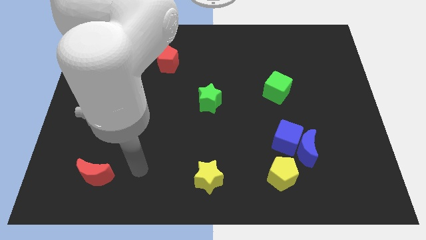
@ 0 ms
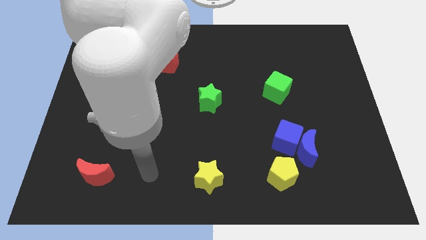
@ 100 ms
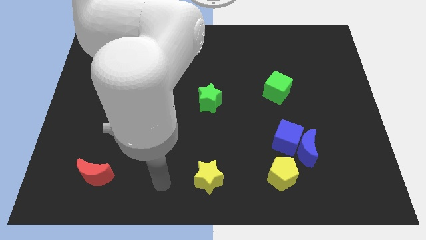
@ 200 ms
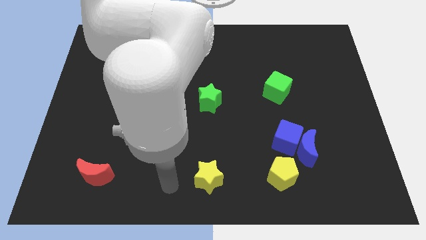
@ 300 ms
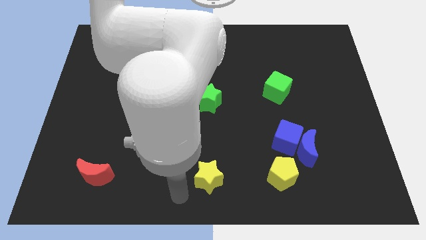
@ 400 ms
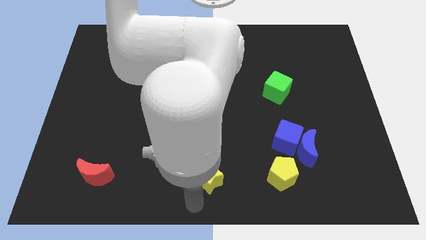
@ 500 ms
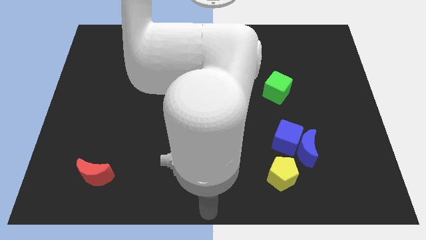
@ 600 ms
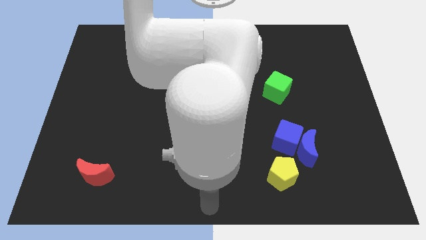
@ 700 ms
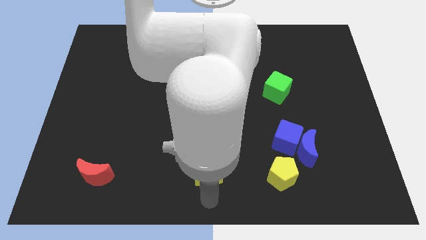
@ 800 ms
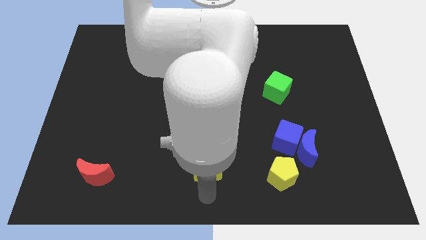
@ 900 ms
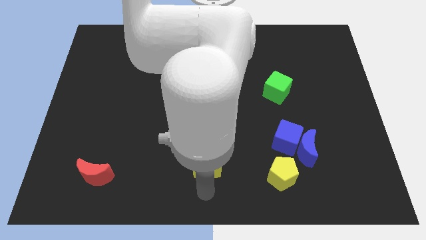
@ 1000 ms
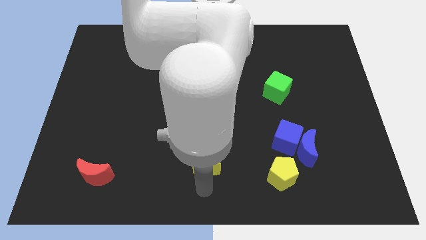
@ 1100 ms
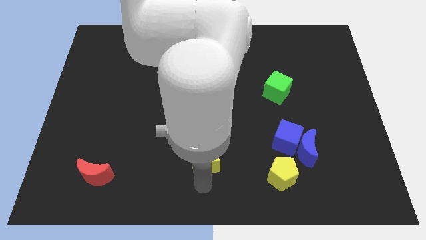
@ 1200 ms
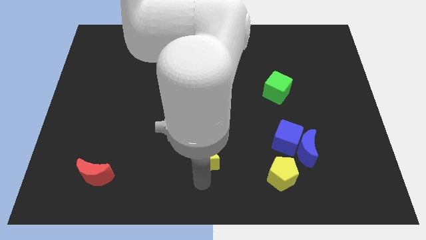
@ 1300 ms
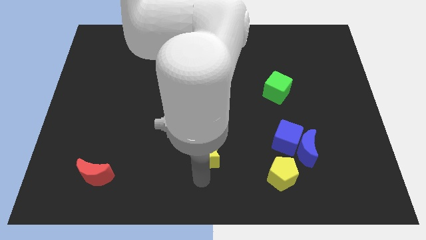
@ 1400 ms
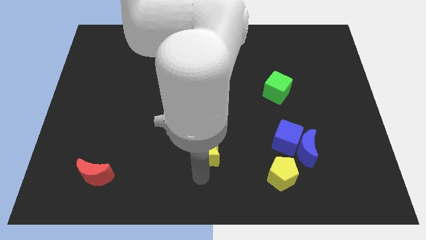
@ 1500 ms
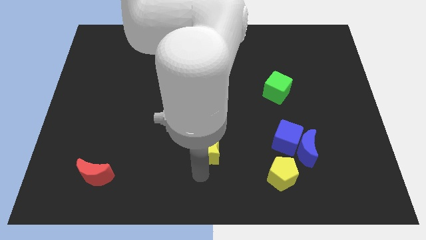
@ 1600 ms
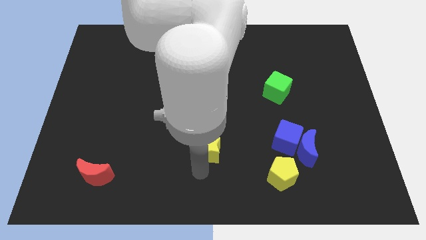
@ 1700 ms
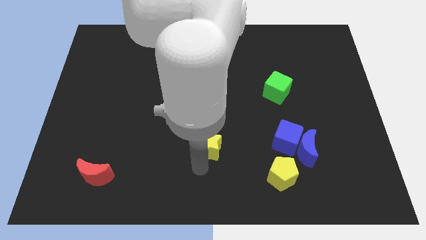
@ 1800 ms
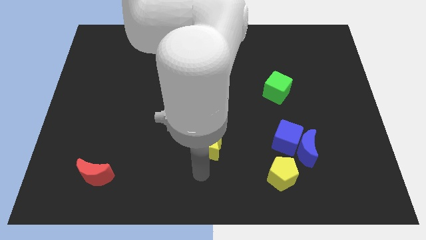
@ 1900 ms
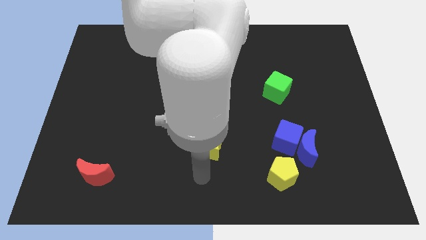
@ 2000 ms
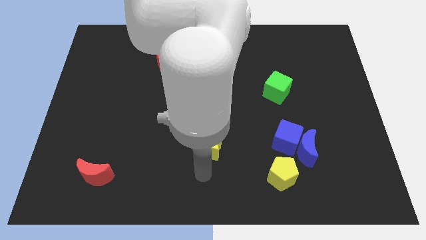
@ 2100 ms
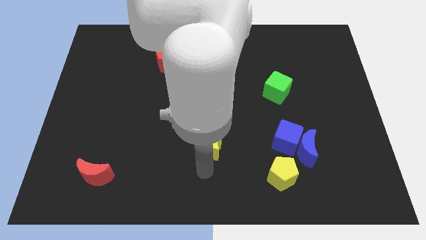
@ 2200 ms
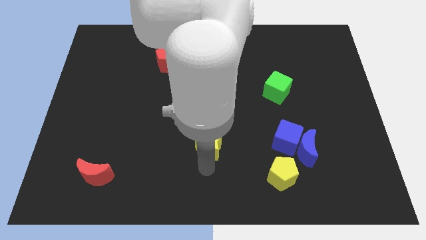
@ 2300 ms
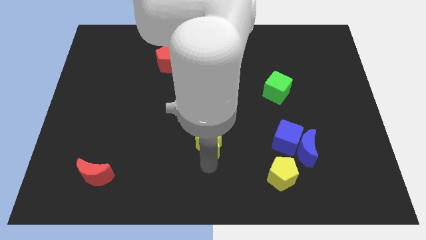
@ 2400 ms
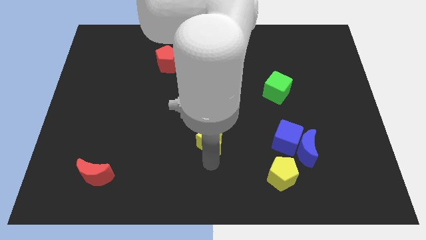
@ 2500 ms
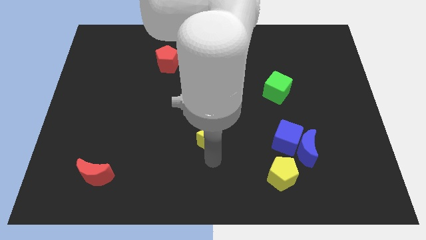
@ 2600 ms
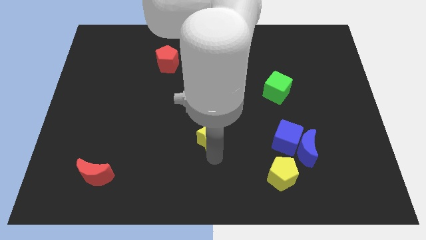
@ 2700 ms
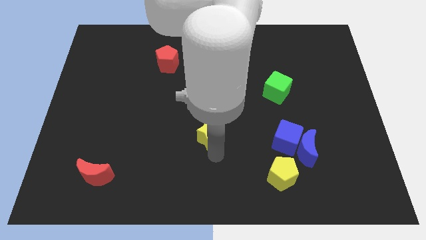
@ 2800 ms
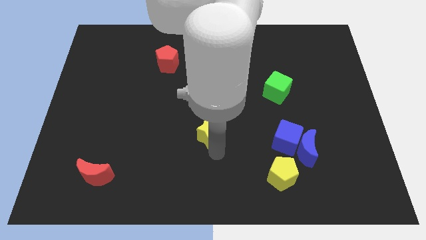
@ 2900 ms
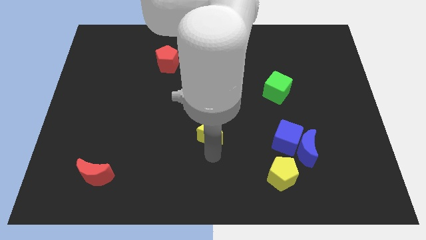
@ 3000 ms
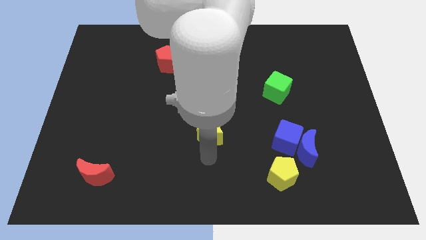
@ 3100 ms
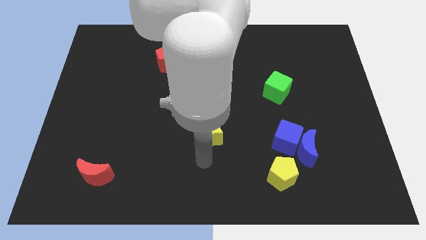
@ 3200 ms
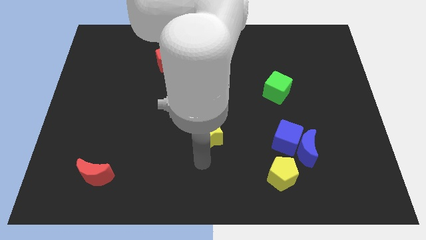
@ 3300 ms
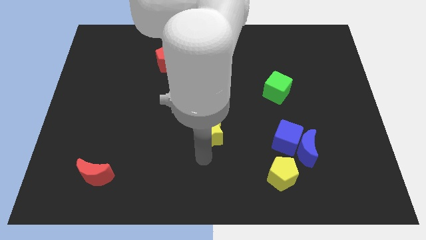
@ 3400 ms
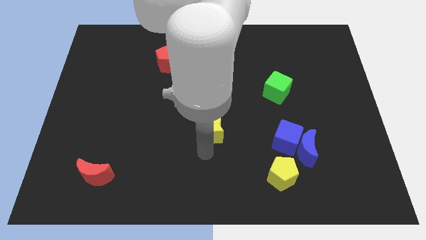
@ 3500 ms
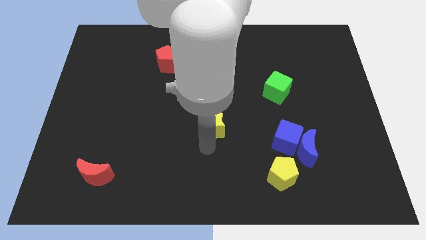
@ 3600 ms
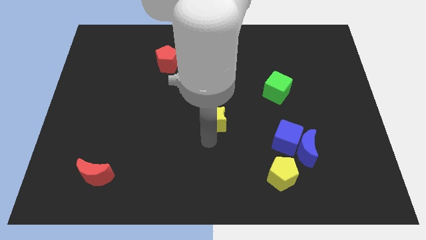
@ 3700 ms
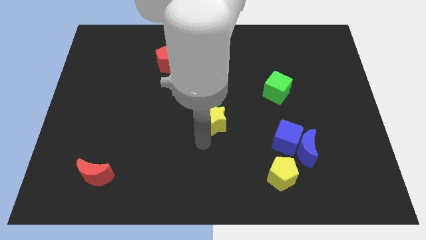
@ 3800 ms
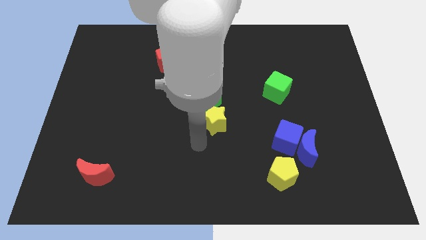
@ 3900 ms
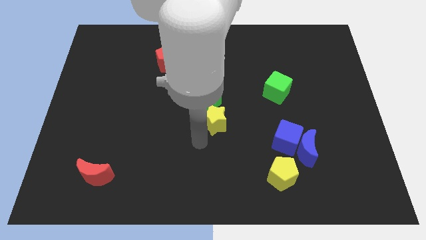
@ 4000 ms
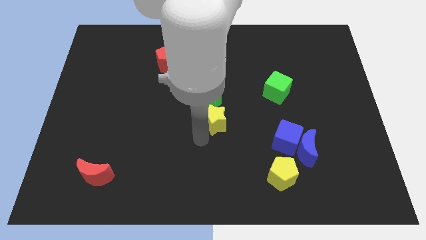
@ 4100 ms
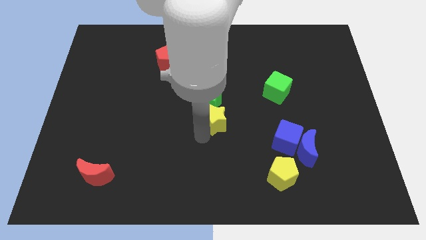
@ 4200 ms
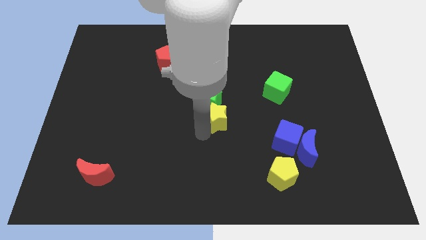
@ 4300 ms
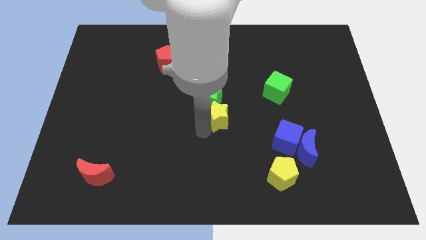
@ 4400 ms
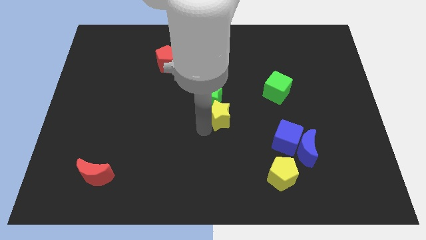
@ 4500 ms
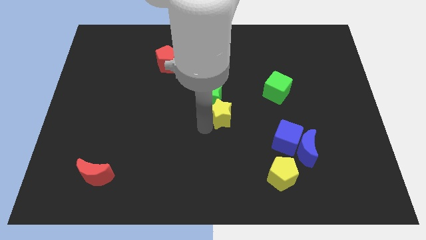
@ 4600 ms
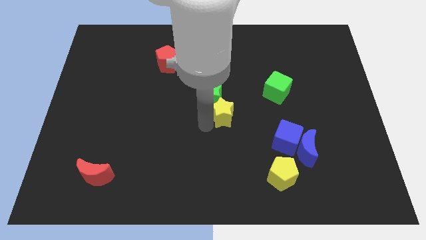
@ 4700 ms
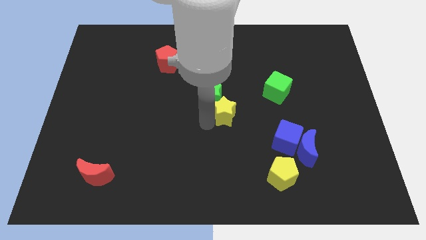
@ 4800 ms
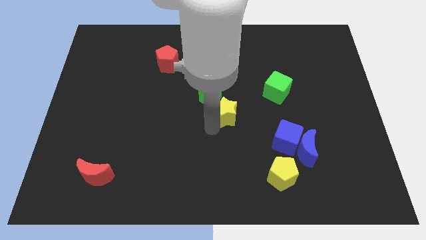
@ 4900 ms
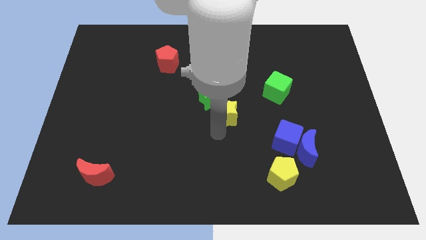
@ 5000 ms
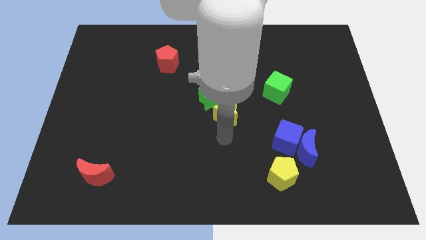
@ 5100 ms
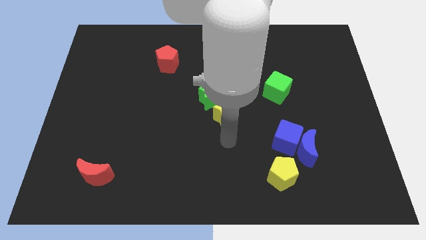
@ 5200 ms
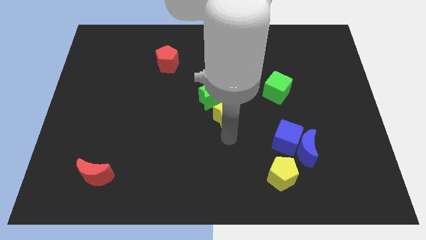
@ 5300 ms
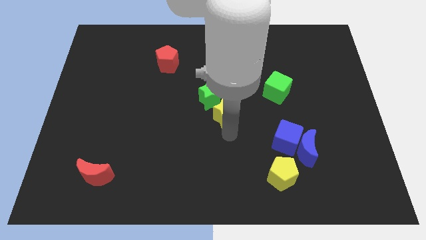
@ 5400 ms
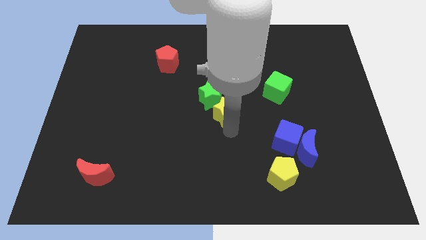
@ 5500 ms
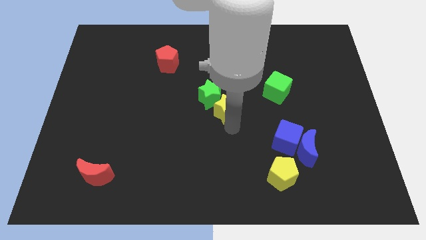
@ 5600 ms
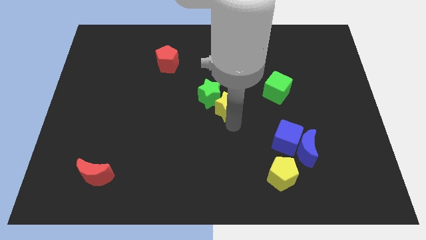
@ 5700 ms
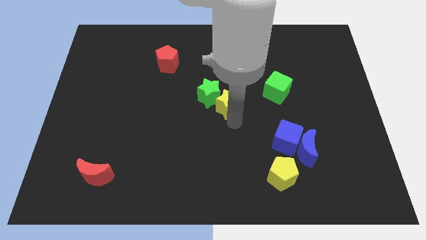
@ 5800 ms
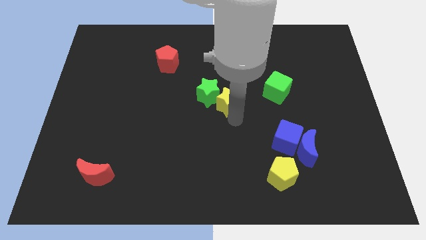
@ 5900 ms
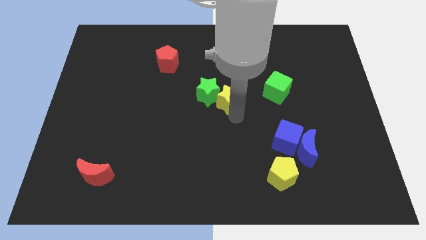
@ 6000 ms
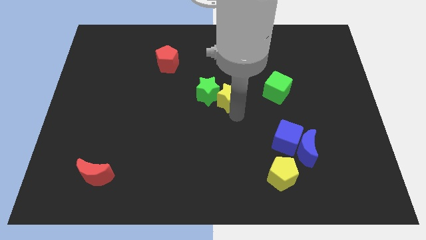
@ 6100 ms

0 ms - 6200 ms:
slide the yellow star upwards

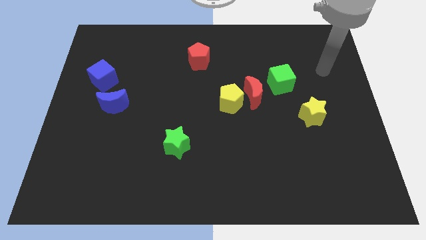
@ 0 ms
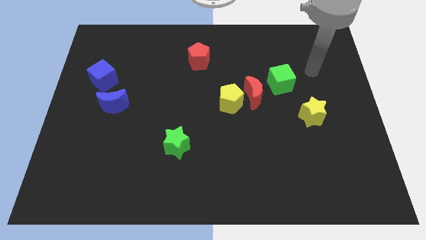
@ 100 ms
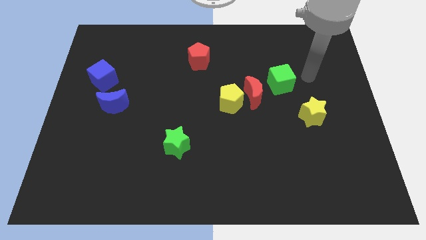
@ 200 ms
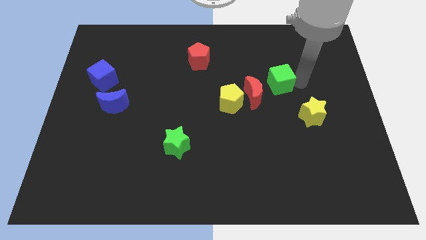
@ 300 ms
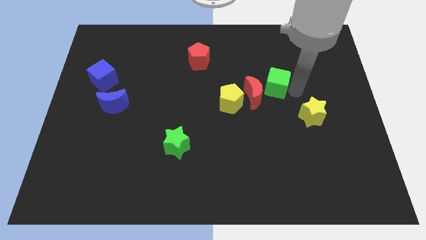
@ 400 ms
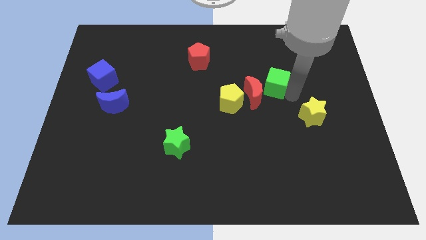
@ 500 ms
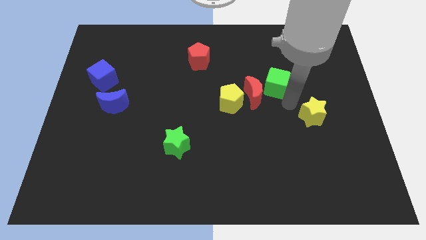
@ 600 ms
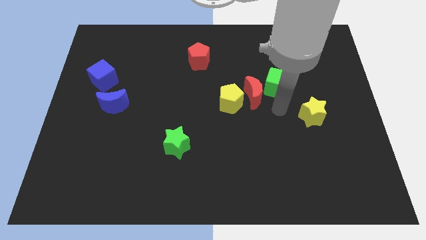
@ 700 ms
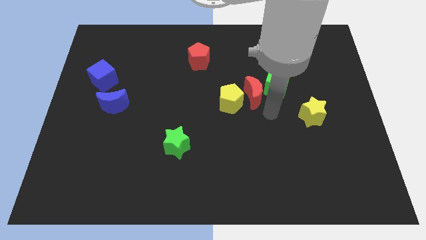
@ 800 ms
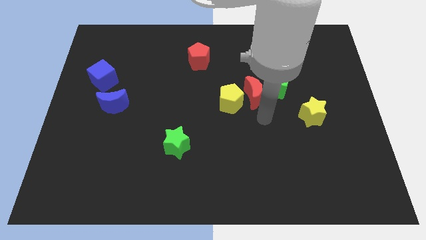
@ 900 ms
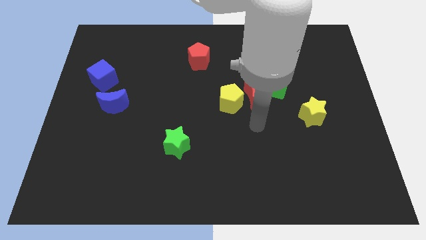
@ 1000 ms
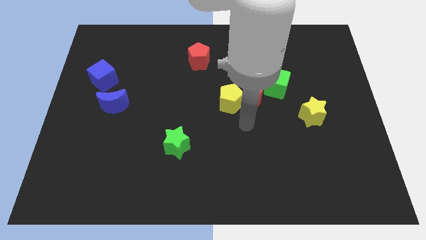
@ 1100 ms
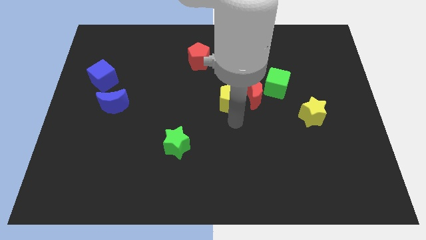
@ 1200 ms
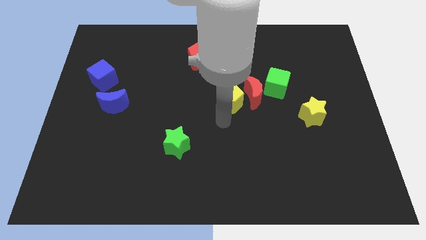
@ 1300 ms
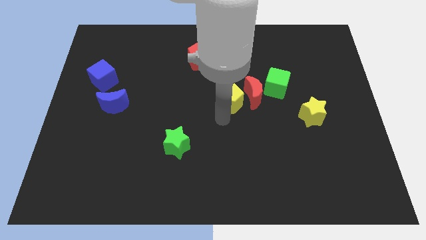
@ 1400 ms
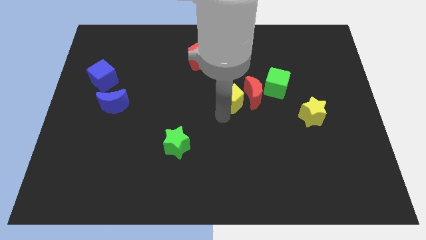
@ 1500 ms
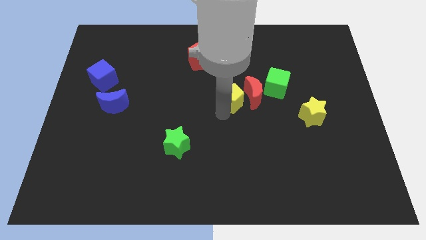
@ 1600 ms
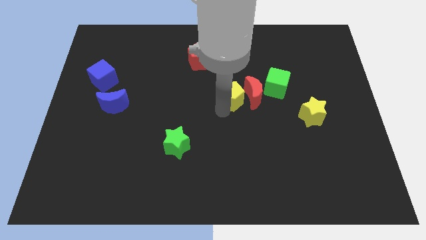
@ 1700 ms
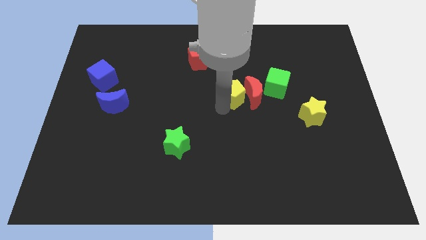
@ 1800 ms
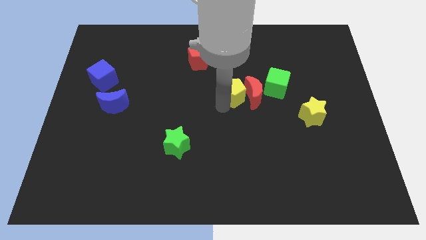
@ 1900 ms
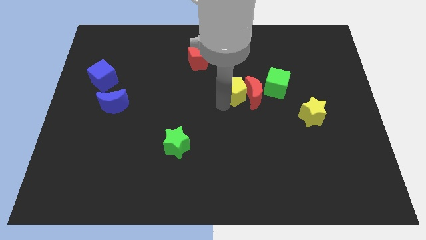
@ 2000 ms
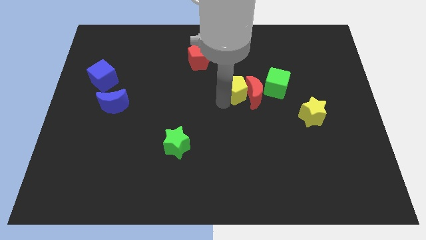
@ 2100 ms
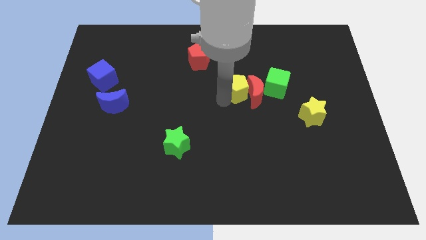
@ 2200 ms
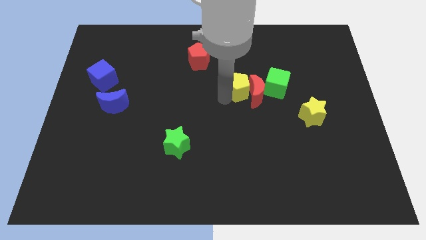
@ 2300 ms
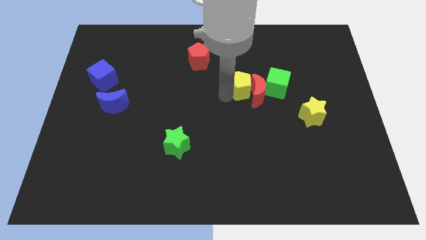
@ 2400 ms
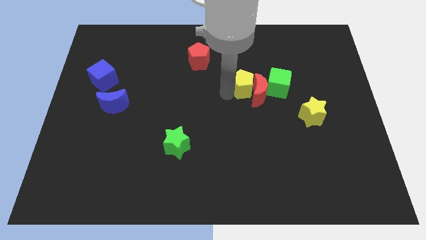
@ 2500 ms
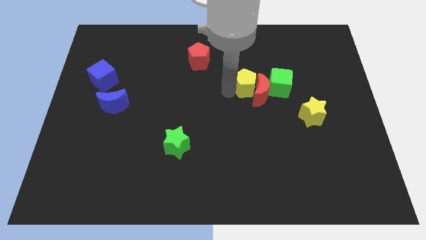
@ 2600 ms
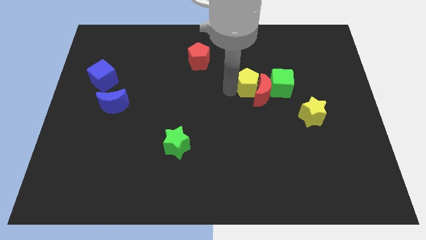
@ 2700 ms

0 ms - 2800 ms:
slightly slide the yellow pentagon upwards and then right
